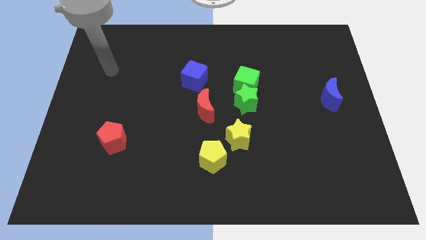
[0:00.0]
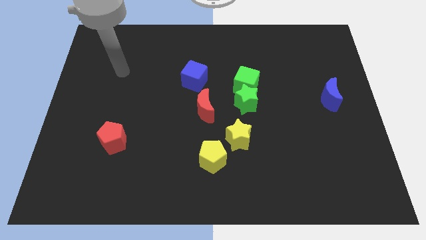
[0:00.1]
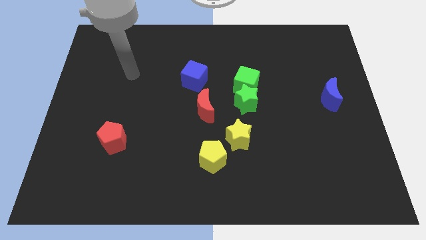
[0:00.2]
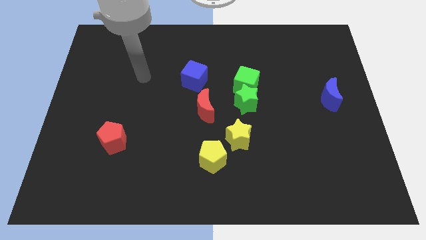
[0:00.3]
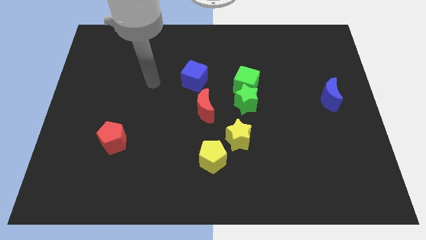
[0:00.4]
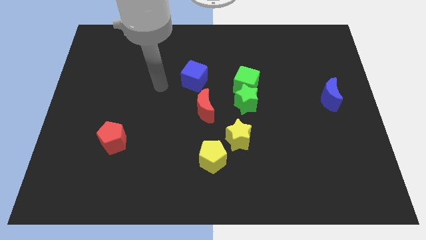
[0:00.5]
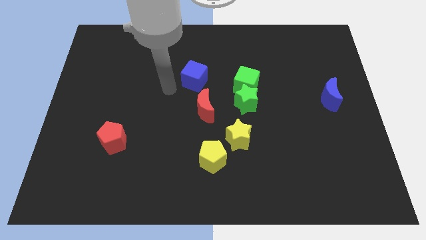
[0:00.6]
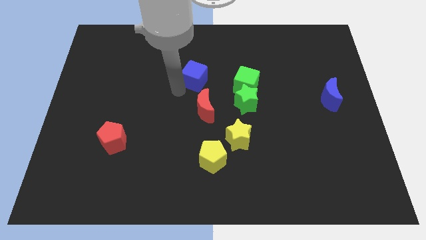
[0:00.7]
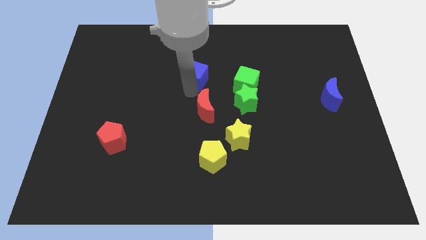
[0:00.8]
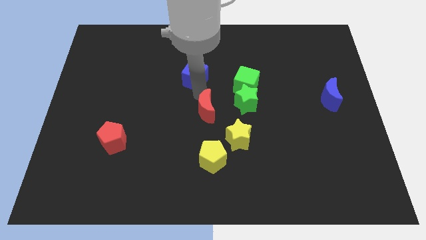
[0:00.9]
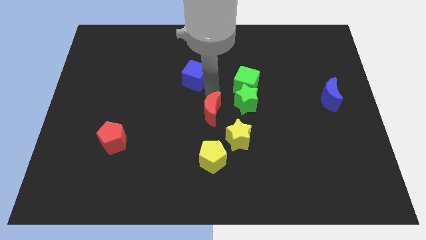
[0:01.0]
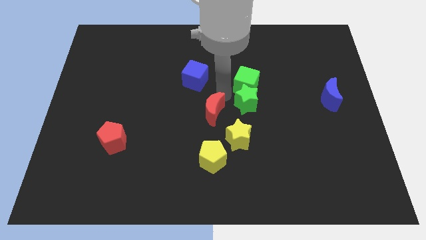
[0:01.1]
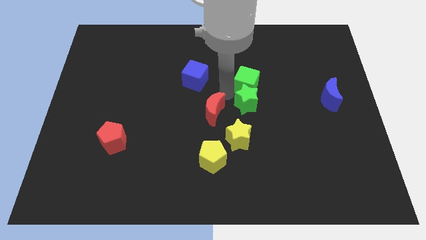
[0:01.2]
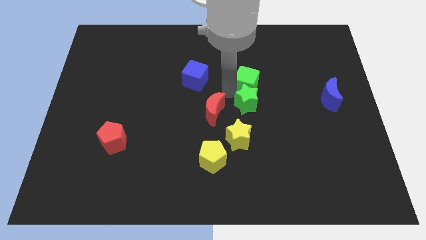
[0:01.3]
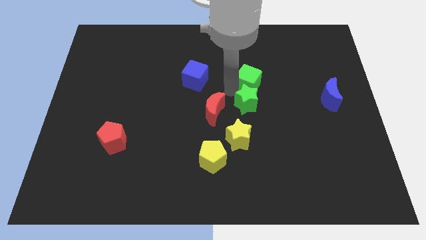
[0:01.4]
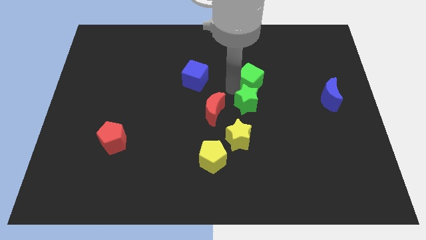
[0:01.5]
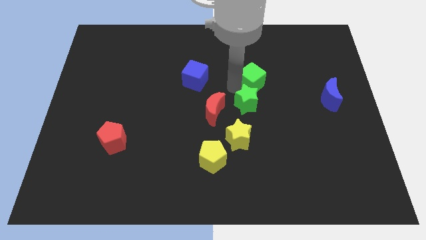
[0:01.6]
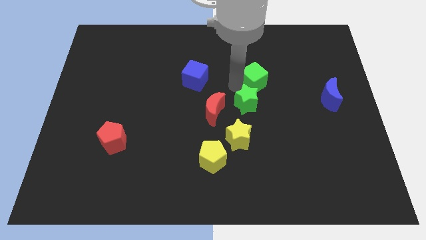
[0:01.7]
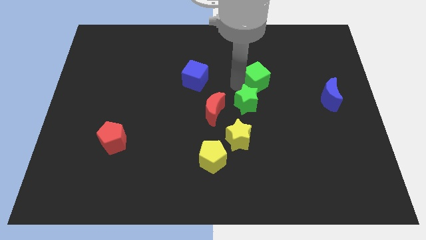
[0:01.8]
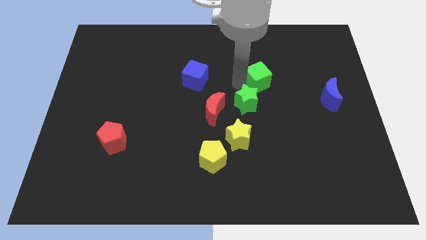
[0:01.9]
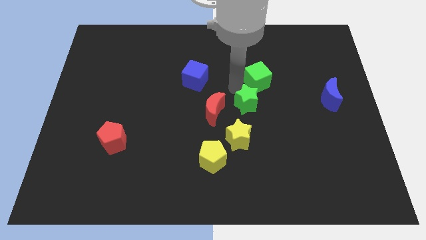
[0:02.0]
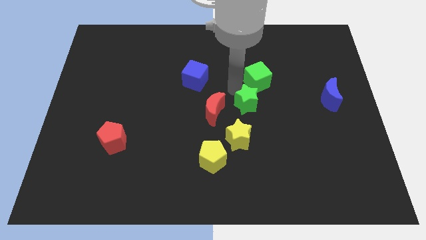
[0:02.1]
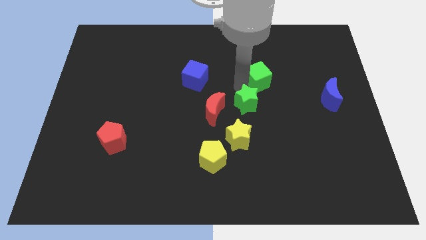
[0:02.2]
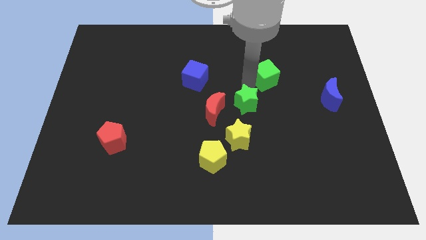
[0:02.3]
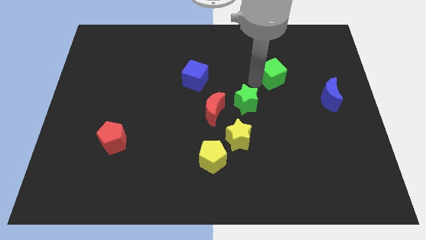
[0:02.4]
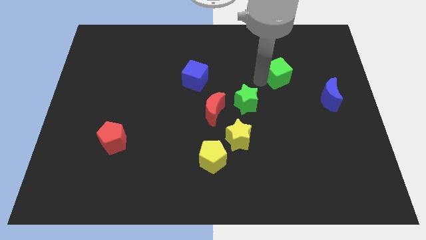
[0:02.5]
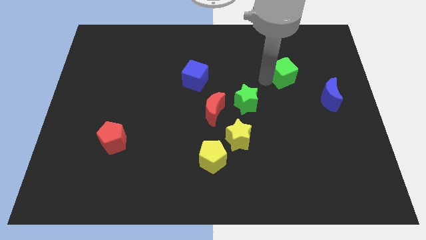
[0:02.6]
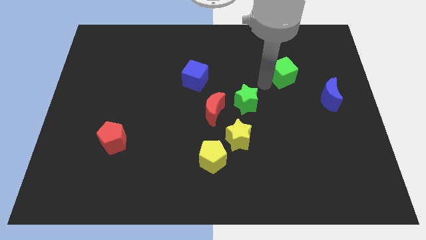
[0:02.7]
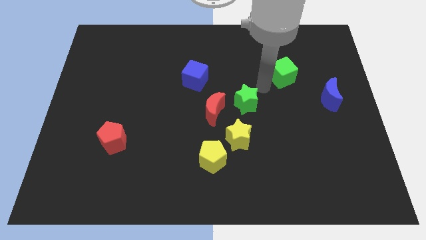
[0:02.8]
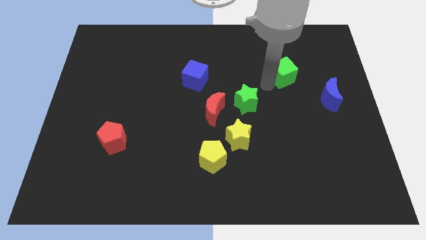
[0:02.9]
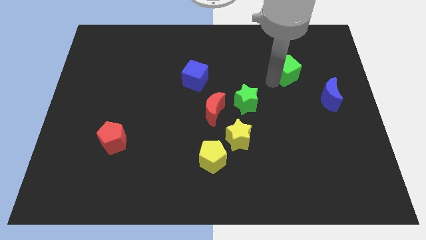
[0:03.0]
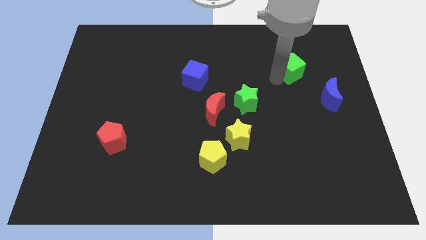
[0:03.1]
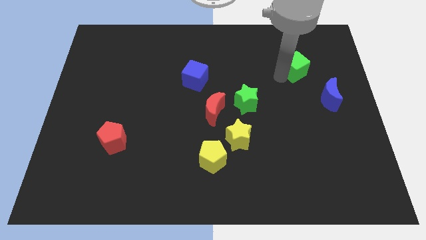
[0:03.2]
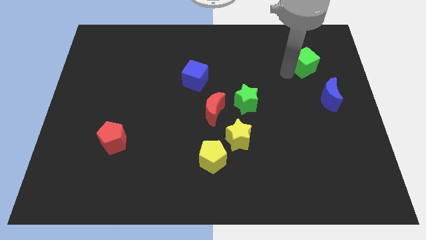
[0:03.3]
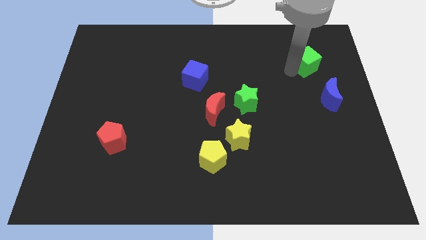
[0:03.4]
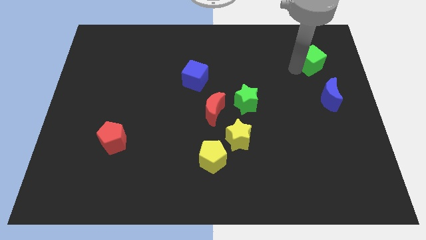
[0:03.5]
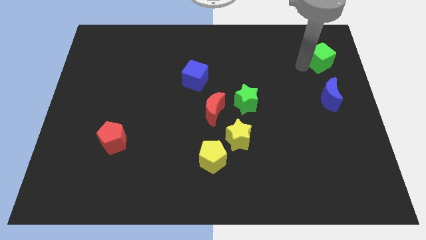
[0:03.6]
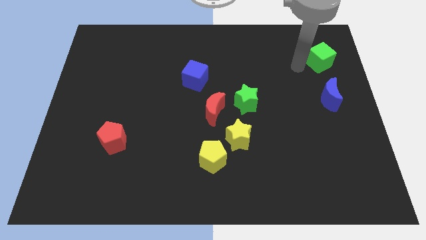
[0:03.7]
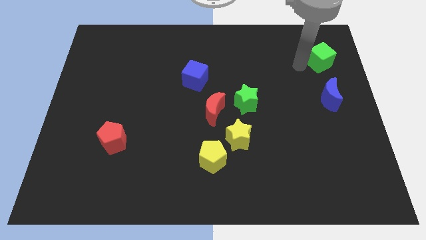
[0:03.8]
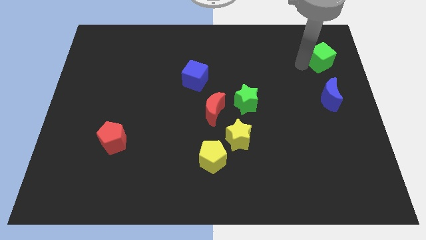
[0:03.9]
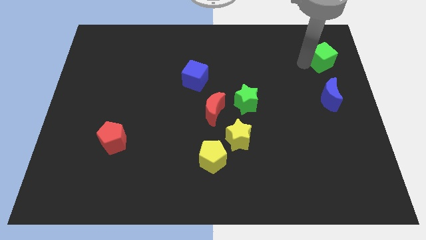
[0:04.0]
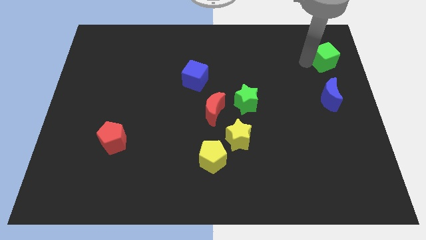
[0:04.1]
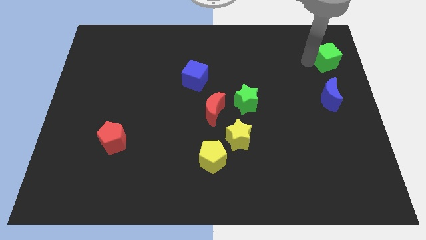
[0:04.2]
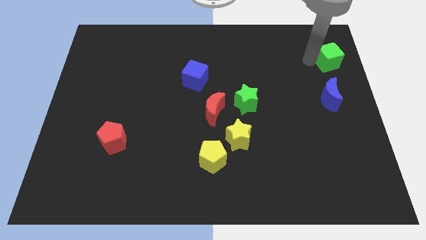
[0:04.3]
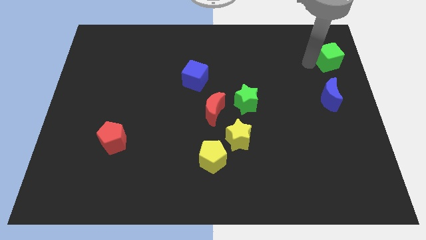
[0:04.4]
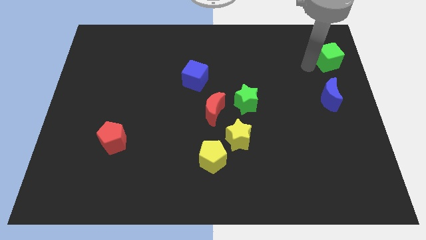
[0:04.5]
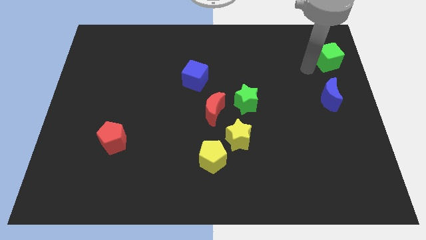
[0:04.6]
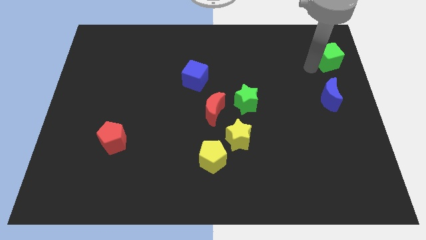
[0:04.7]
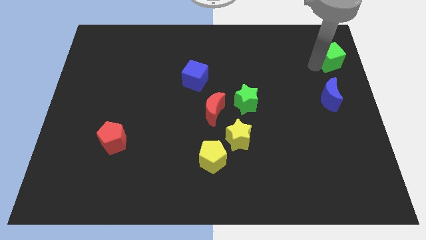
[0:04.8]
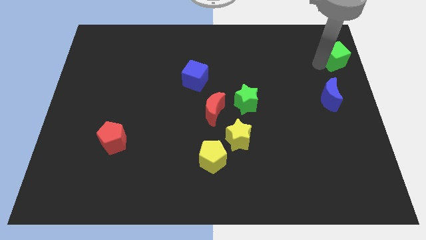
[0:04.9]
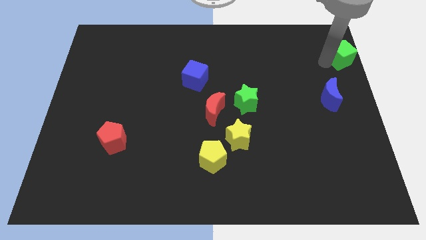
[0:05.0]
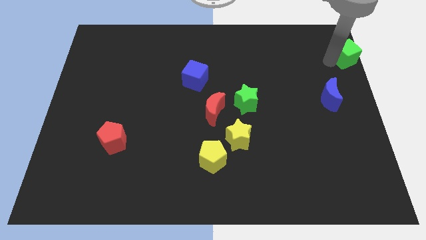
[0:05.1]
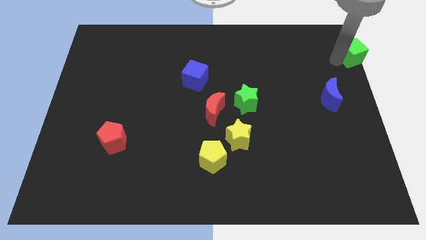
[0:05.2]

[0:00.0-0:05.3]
slide the green cube to the upper right corner
